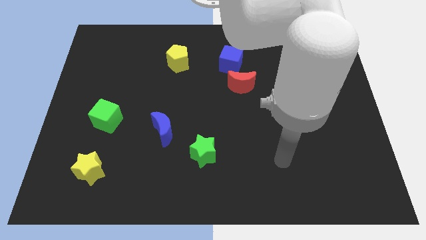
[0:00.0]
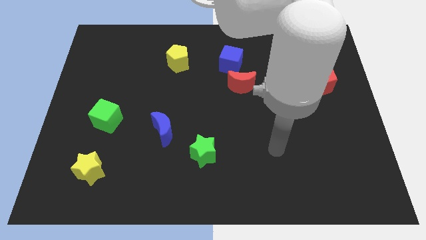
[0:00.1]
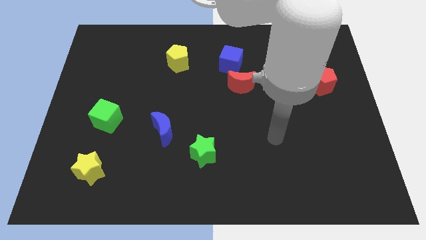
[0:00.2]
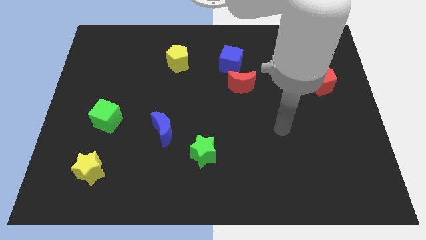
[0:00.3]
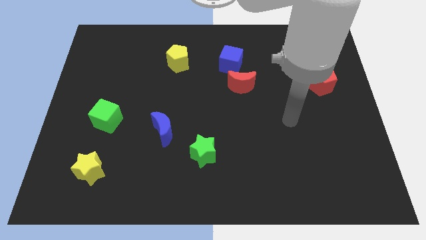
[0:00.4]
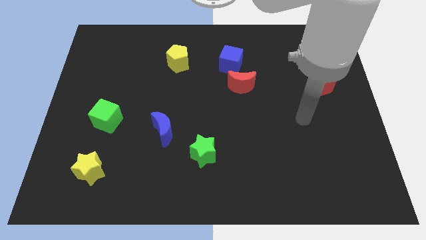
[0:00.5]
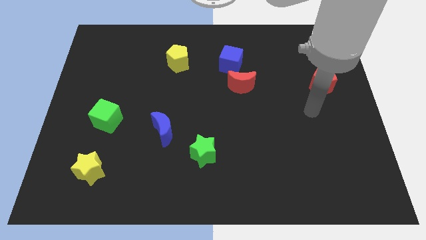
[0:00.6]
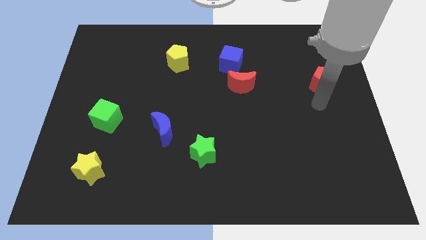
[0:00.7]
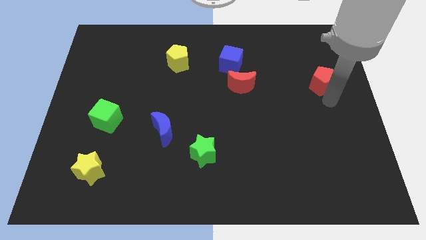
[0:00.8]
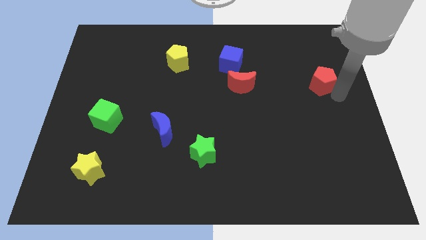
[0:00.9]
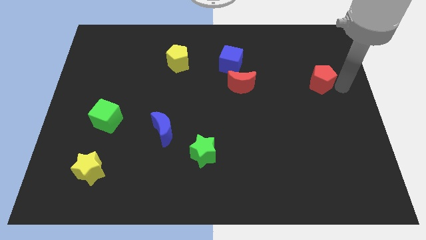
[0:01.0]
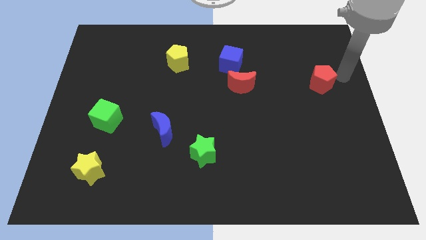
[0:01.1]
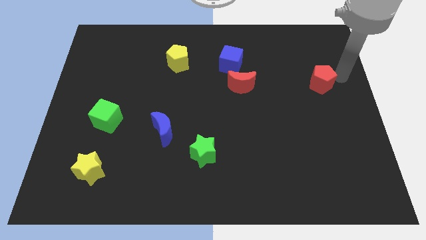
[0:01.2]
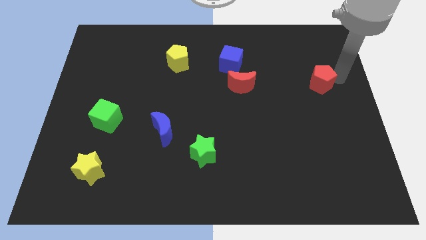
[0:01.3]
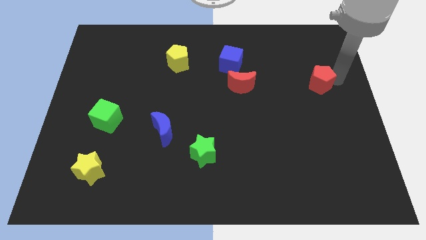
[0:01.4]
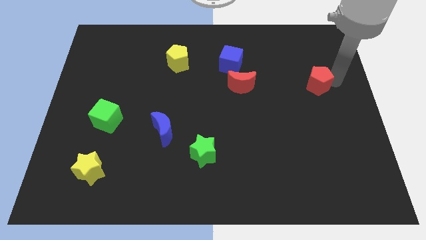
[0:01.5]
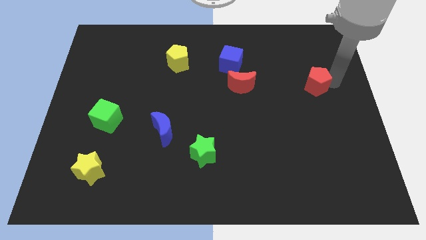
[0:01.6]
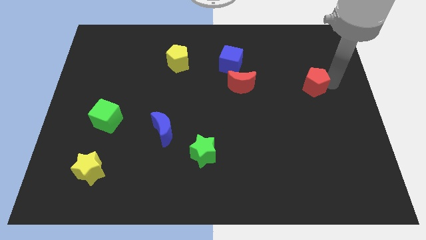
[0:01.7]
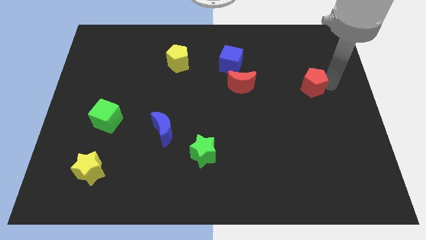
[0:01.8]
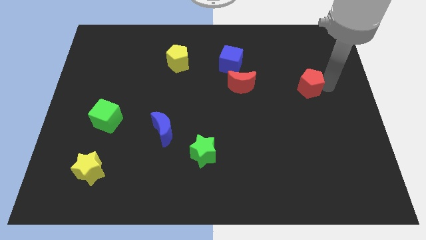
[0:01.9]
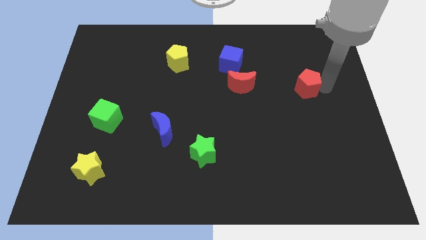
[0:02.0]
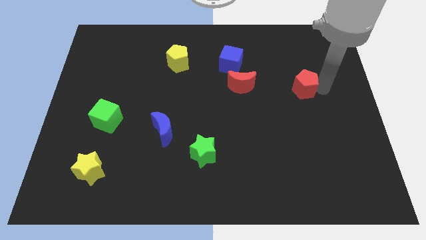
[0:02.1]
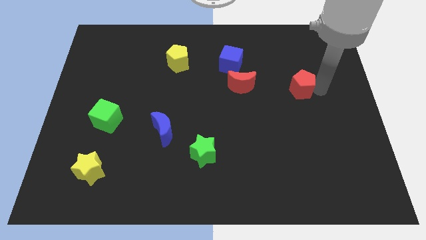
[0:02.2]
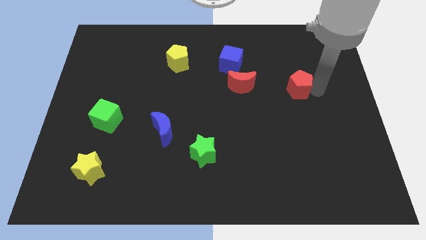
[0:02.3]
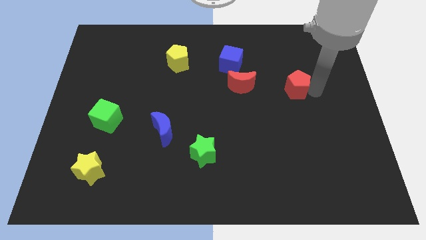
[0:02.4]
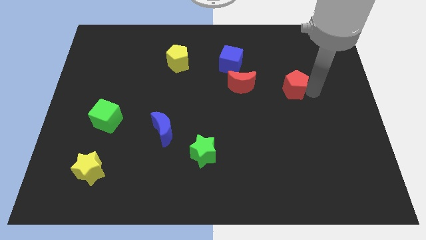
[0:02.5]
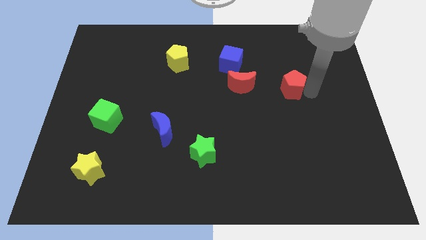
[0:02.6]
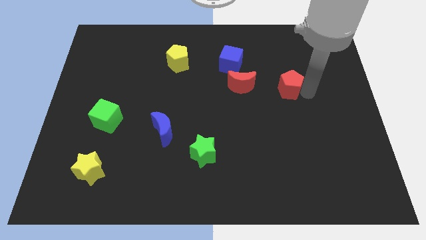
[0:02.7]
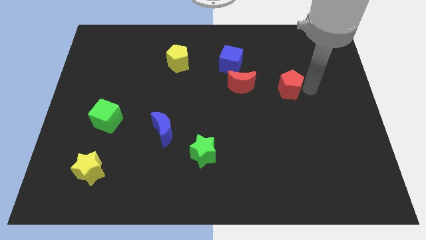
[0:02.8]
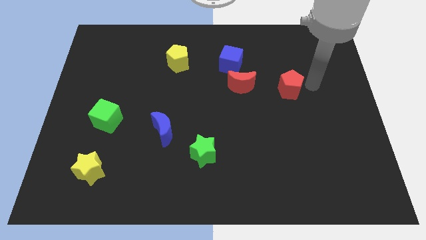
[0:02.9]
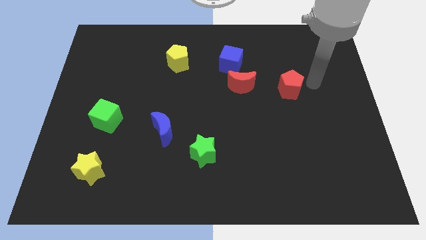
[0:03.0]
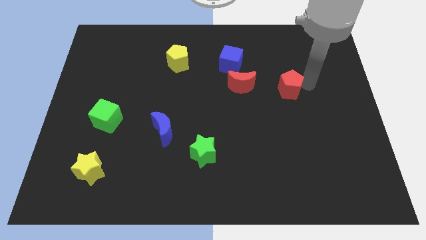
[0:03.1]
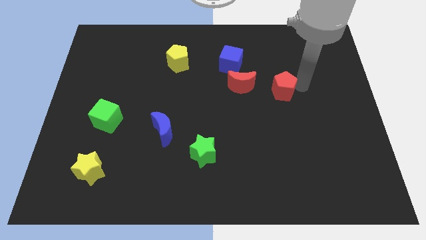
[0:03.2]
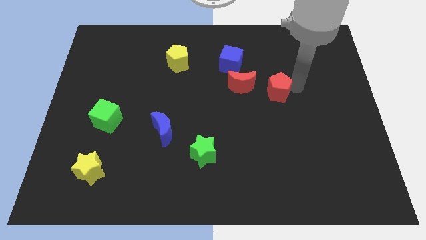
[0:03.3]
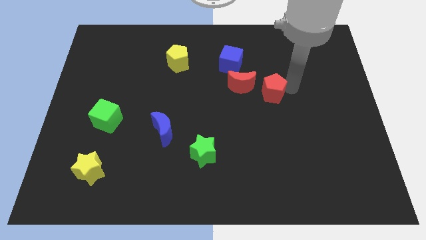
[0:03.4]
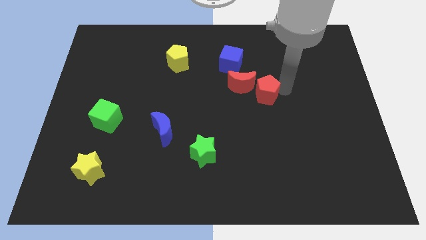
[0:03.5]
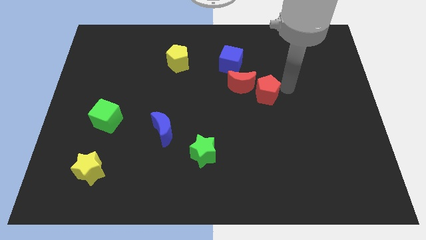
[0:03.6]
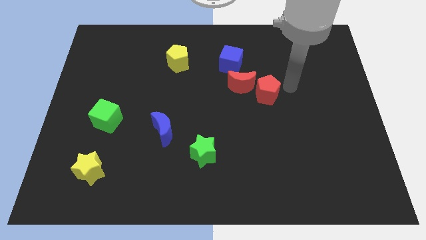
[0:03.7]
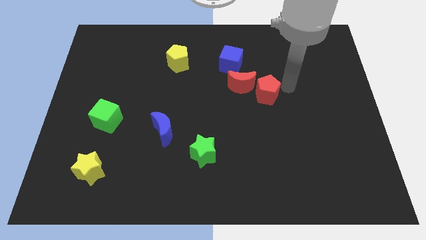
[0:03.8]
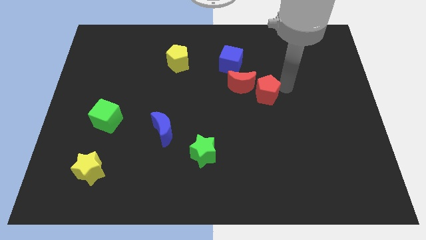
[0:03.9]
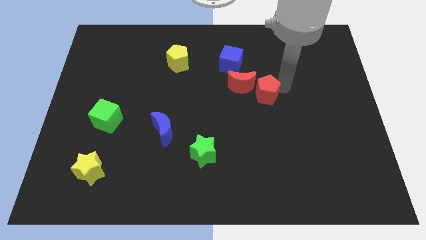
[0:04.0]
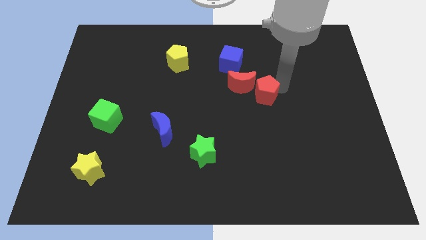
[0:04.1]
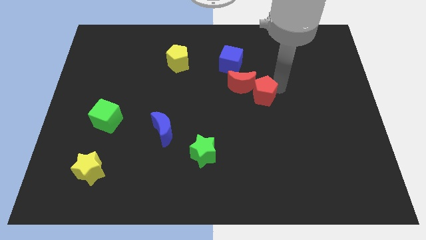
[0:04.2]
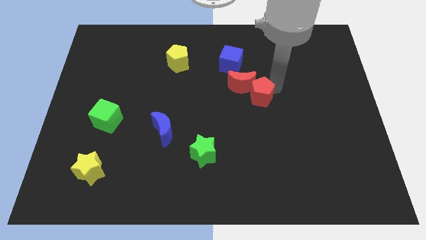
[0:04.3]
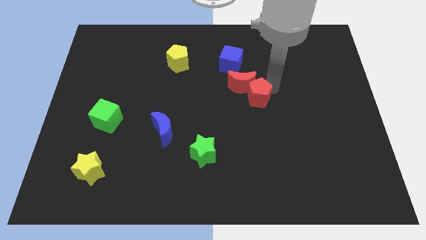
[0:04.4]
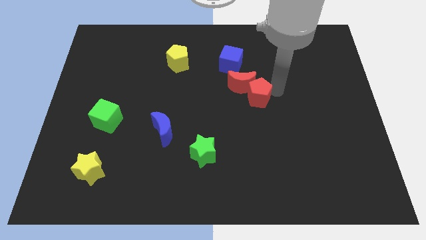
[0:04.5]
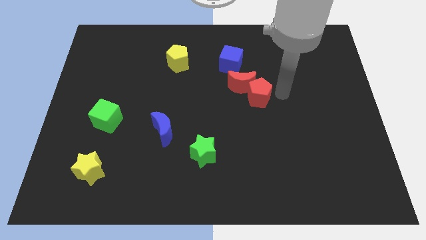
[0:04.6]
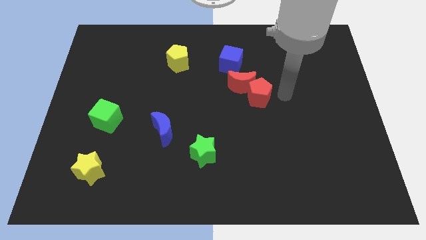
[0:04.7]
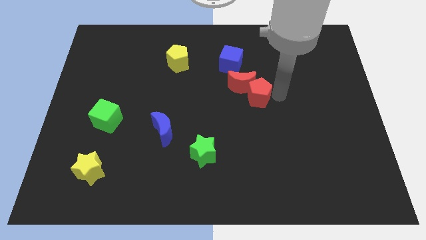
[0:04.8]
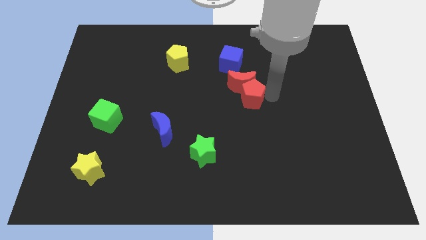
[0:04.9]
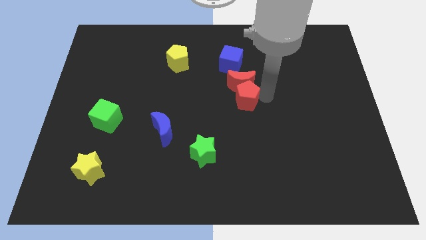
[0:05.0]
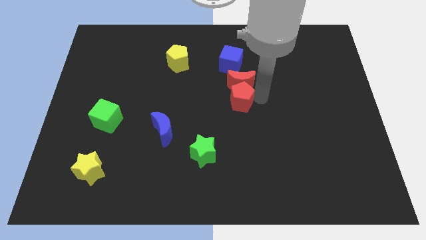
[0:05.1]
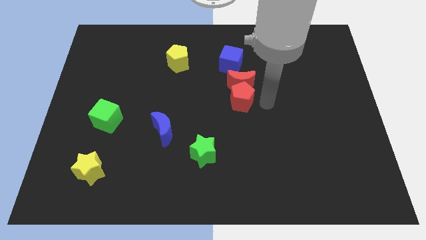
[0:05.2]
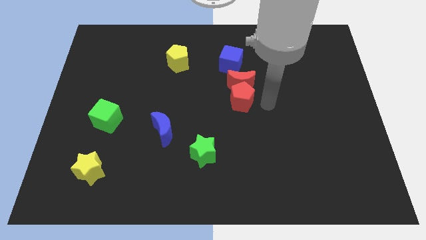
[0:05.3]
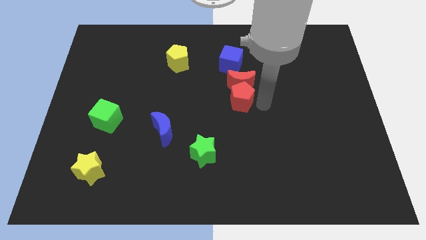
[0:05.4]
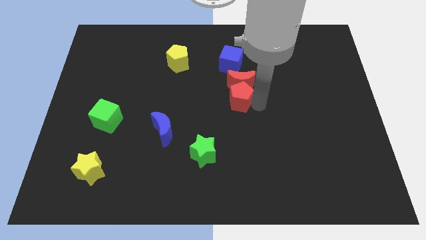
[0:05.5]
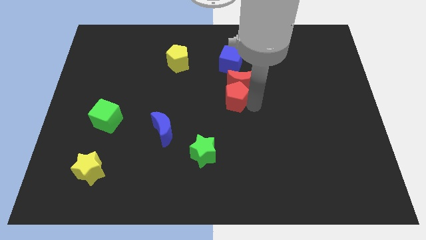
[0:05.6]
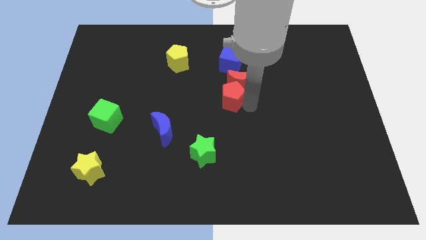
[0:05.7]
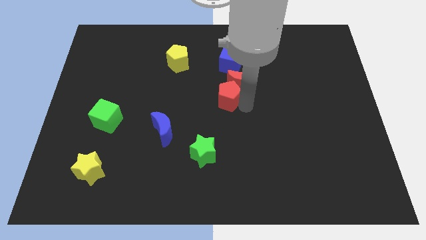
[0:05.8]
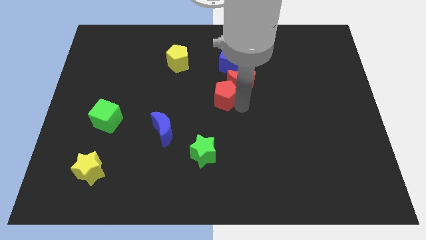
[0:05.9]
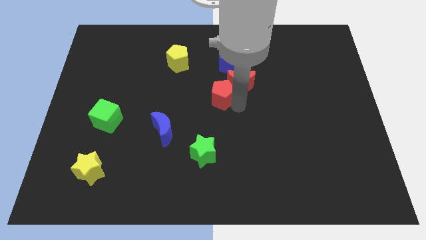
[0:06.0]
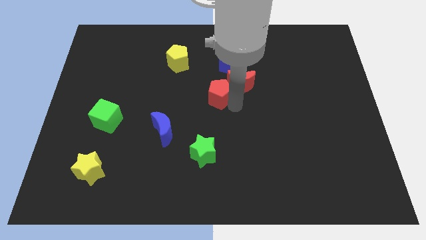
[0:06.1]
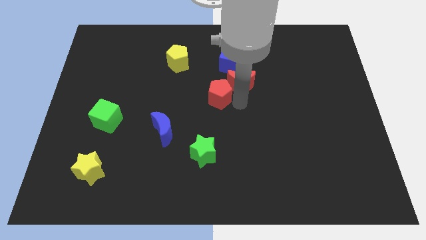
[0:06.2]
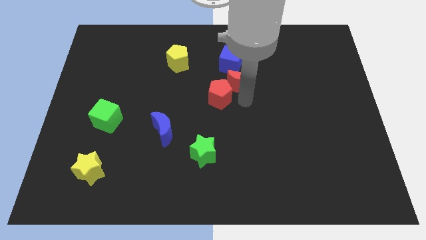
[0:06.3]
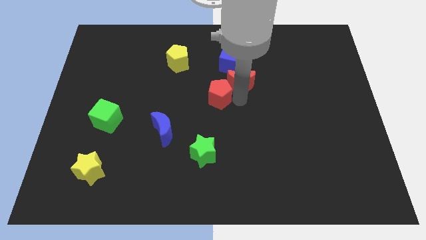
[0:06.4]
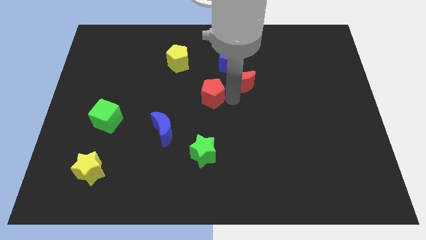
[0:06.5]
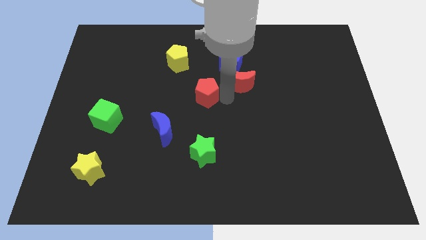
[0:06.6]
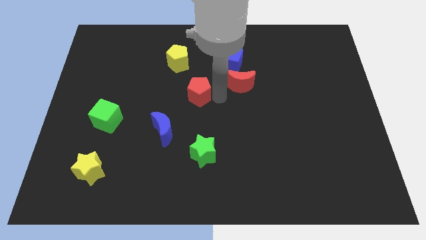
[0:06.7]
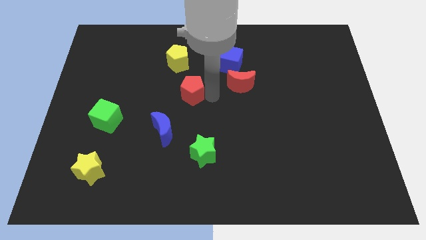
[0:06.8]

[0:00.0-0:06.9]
move the red pentagon to the bottom of the yellow pentagon
